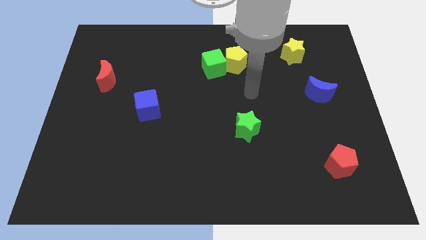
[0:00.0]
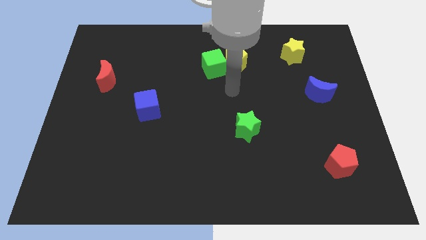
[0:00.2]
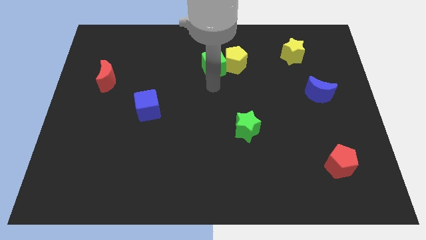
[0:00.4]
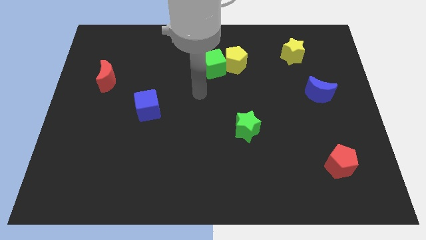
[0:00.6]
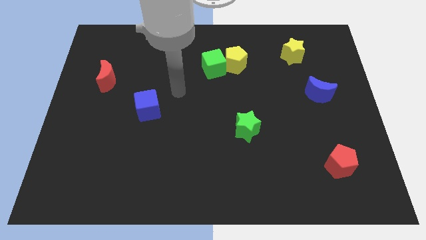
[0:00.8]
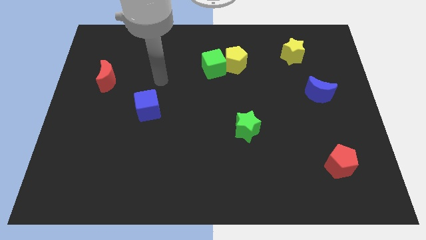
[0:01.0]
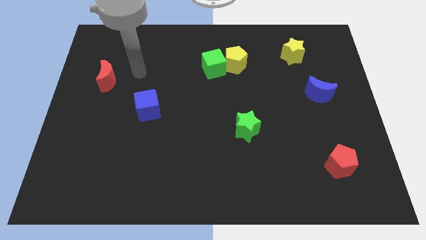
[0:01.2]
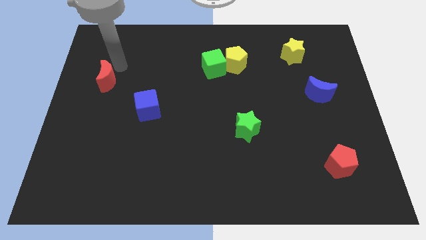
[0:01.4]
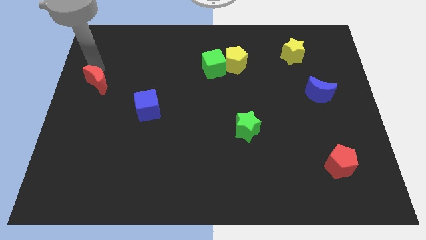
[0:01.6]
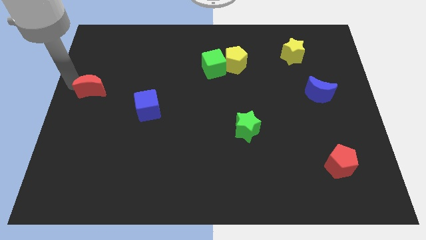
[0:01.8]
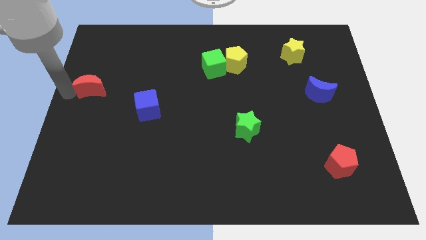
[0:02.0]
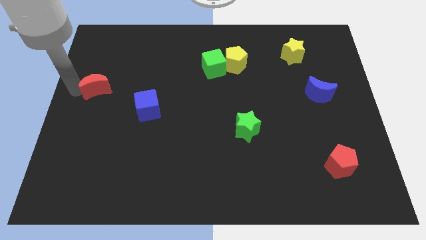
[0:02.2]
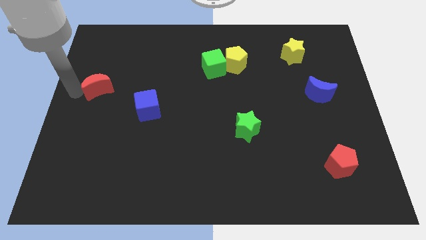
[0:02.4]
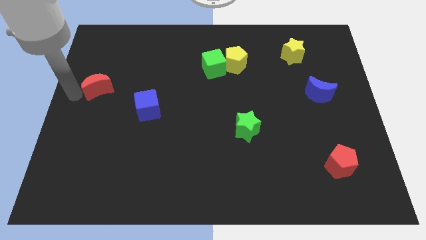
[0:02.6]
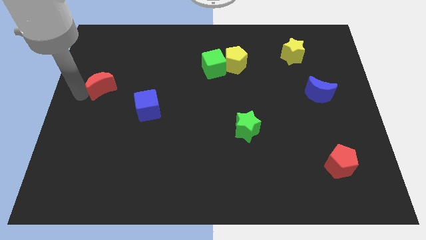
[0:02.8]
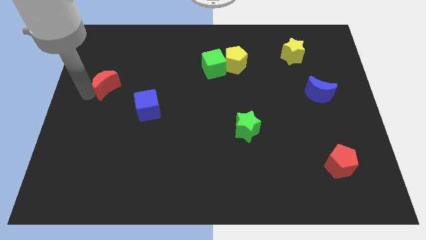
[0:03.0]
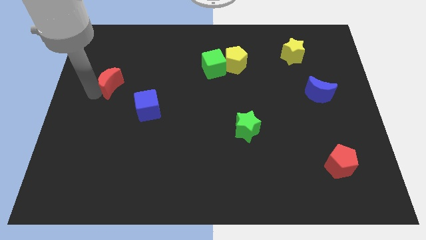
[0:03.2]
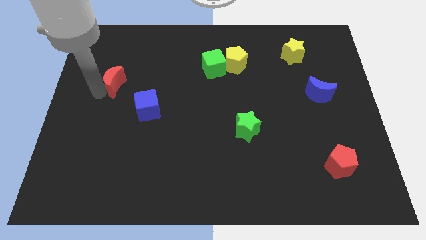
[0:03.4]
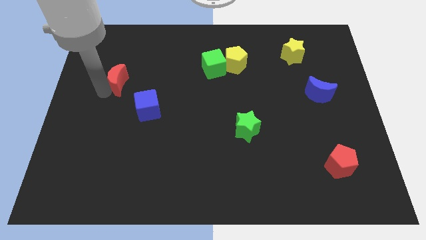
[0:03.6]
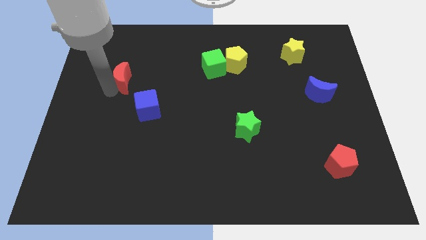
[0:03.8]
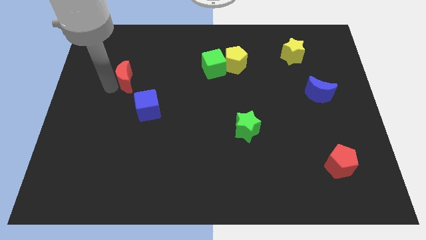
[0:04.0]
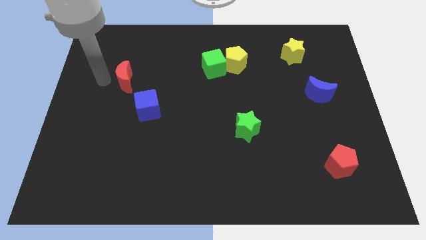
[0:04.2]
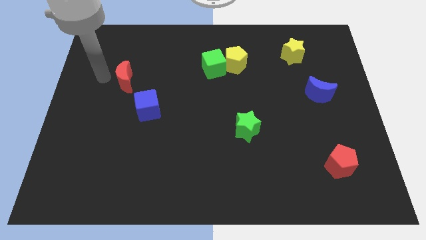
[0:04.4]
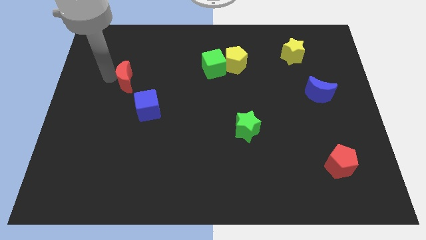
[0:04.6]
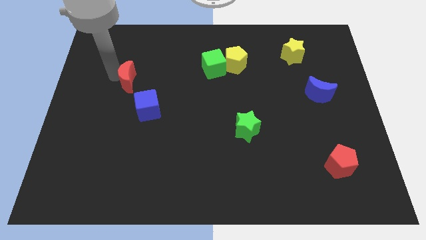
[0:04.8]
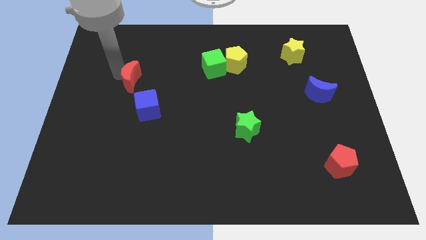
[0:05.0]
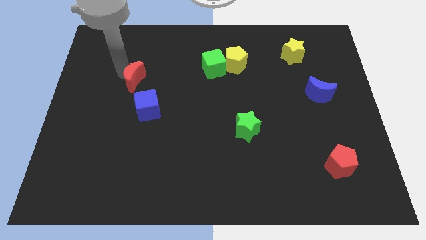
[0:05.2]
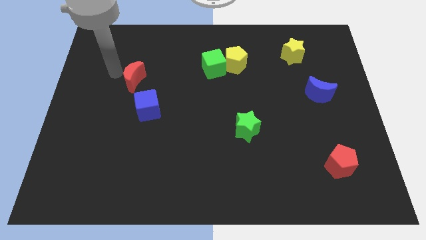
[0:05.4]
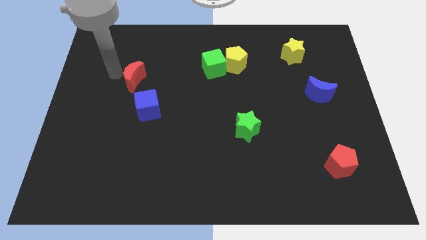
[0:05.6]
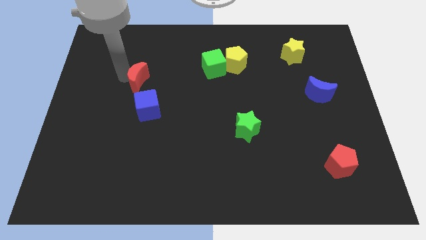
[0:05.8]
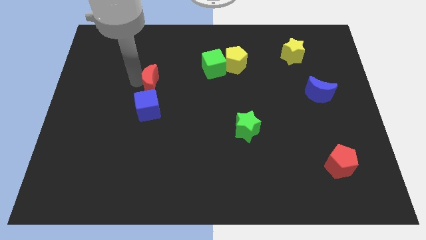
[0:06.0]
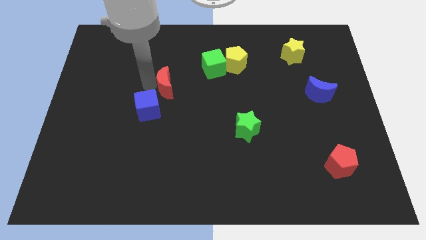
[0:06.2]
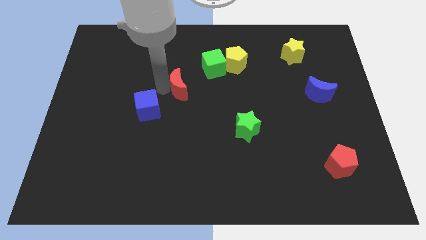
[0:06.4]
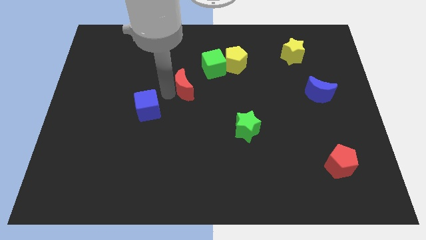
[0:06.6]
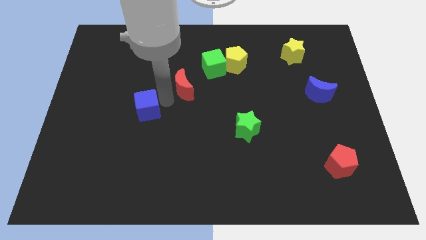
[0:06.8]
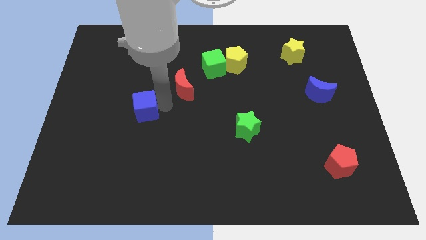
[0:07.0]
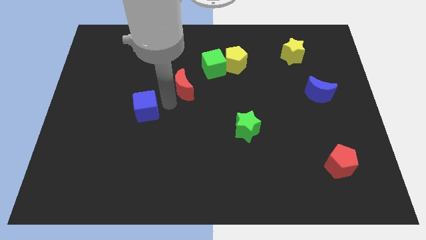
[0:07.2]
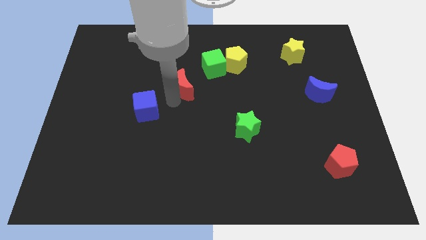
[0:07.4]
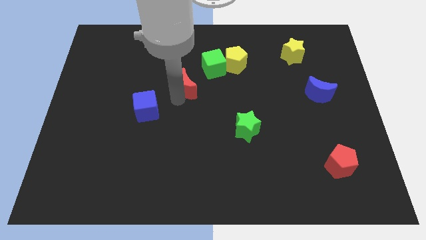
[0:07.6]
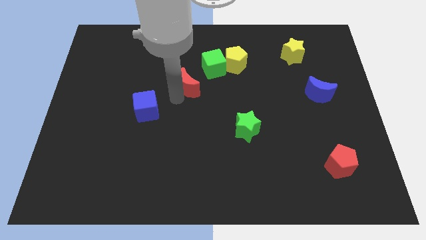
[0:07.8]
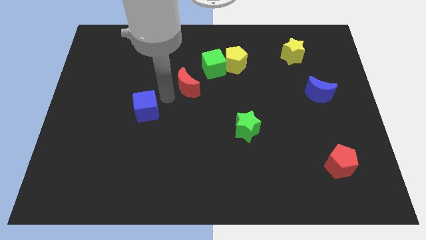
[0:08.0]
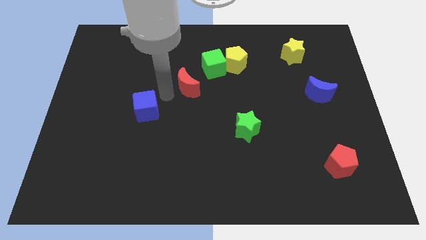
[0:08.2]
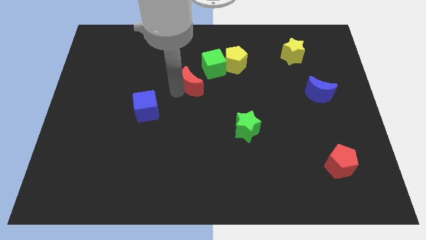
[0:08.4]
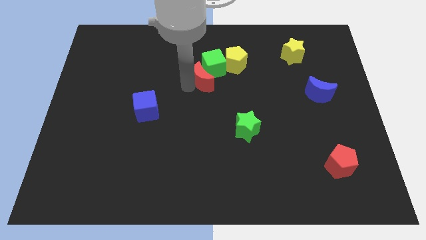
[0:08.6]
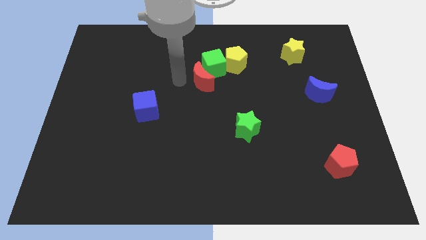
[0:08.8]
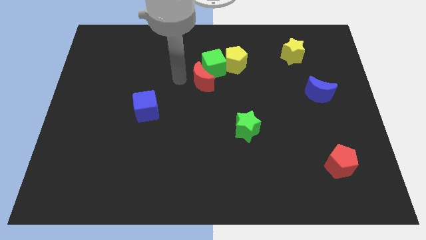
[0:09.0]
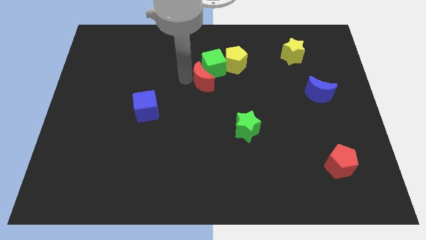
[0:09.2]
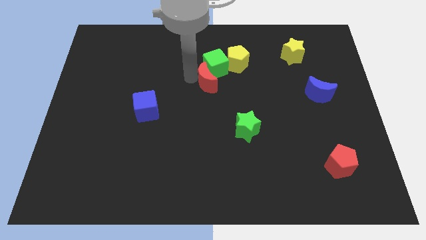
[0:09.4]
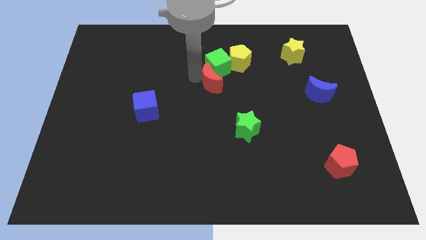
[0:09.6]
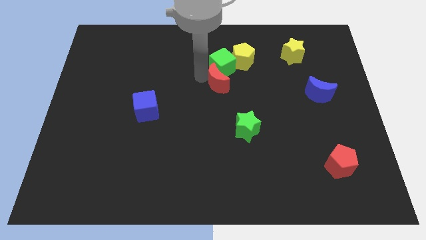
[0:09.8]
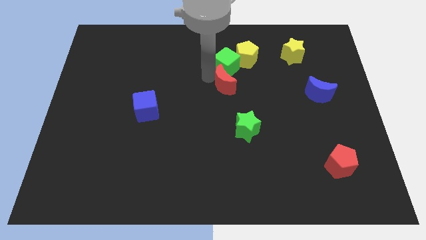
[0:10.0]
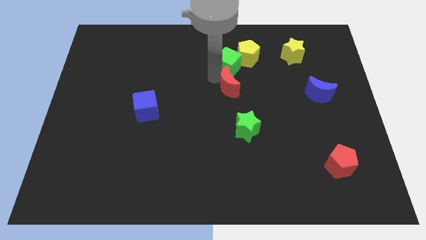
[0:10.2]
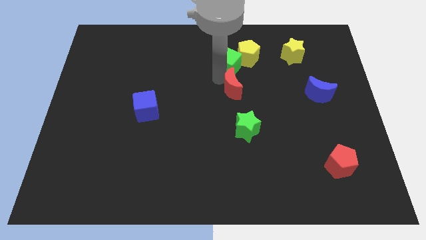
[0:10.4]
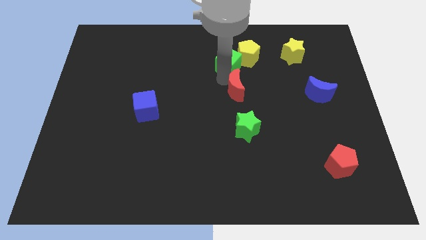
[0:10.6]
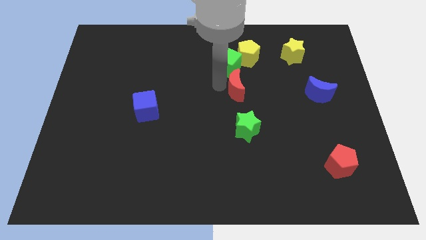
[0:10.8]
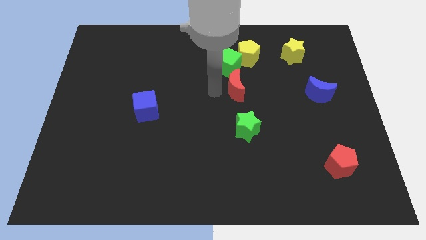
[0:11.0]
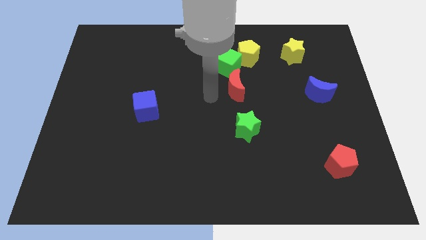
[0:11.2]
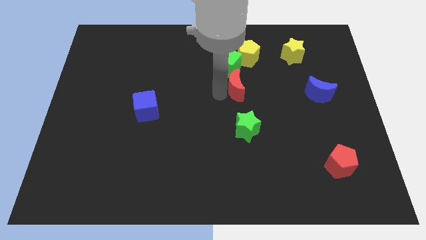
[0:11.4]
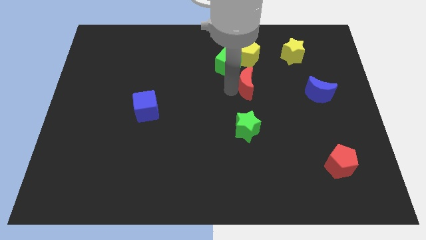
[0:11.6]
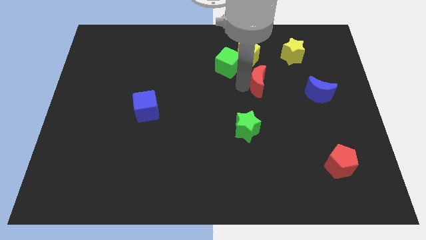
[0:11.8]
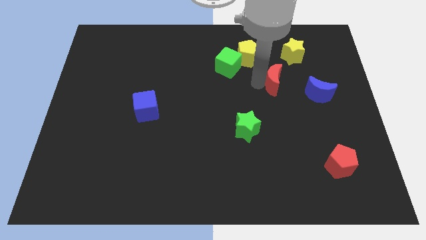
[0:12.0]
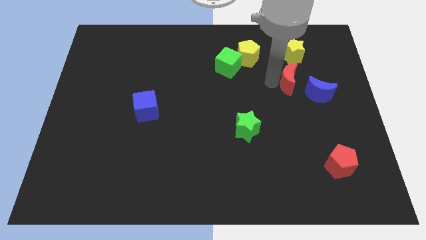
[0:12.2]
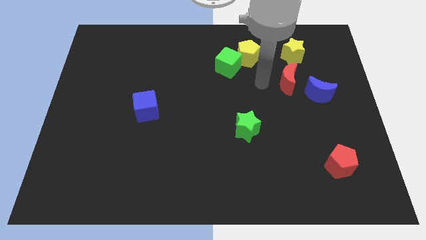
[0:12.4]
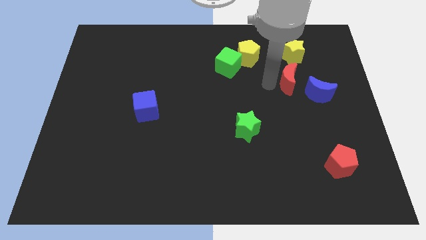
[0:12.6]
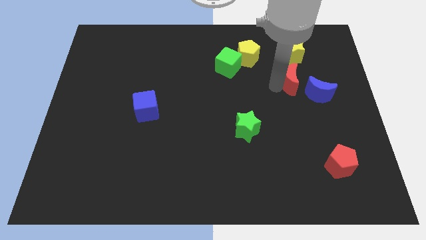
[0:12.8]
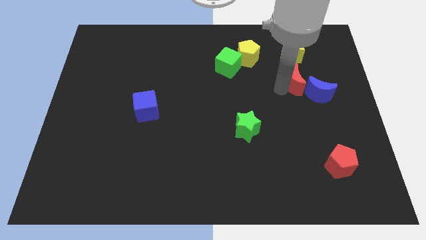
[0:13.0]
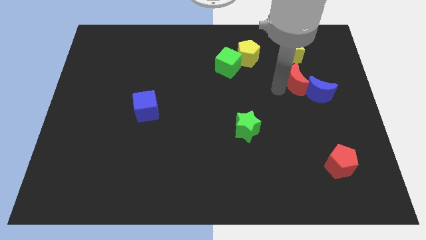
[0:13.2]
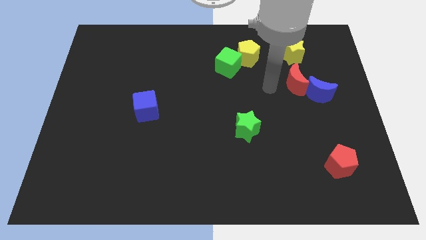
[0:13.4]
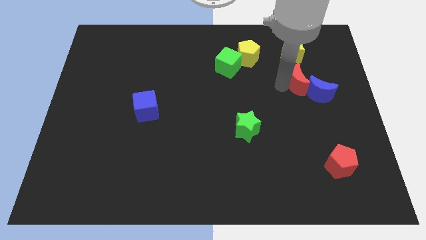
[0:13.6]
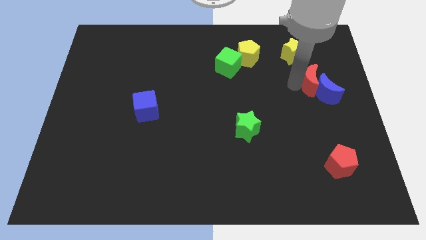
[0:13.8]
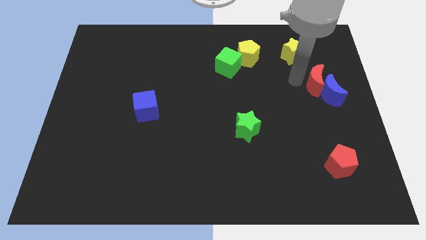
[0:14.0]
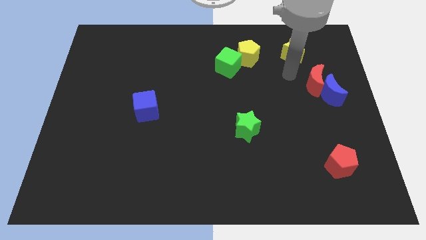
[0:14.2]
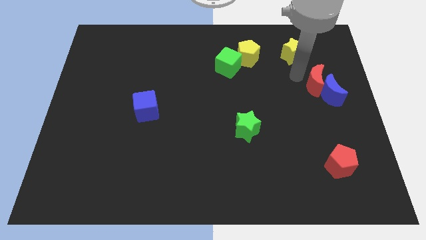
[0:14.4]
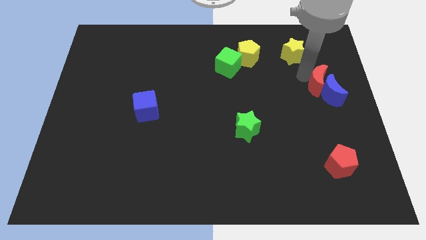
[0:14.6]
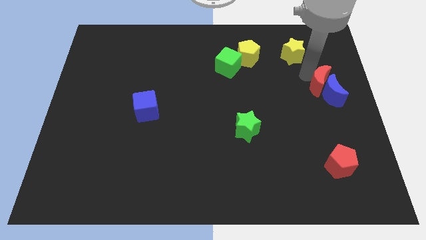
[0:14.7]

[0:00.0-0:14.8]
slide the red moon to the right side

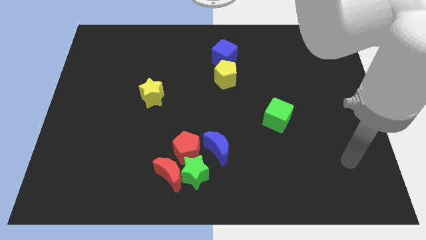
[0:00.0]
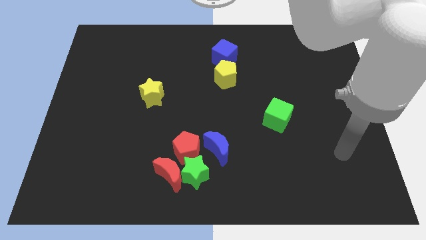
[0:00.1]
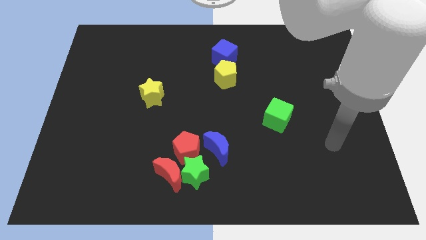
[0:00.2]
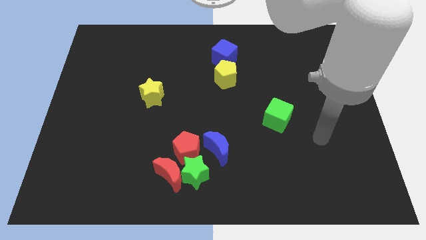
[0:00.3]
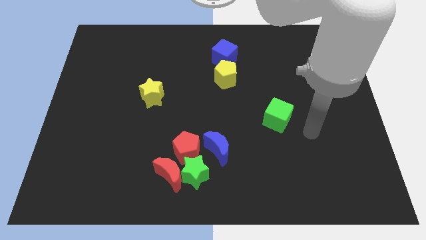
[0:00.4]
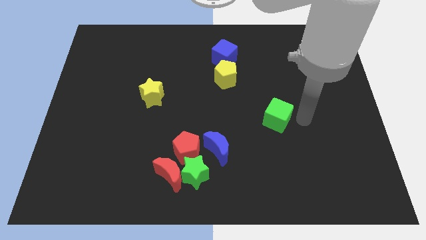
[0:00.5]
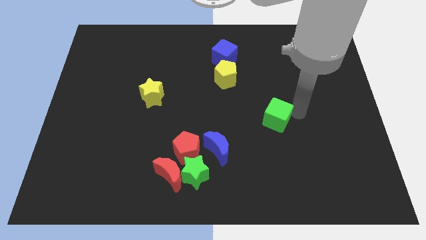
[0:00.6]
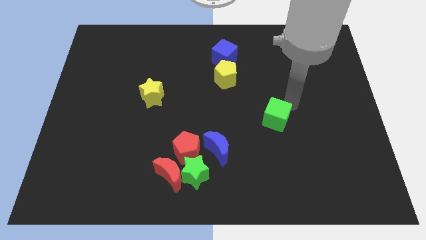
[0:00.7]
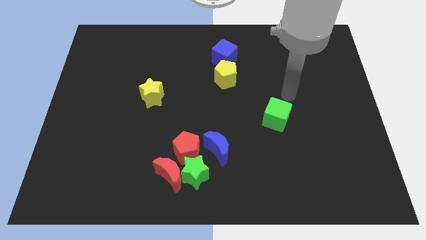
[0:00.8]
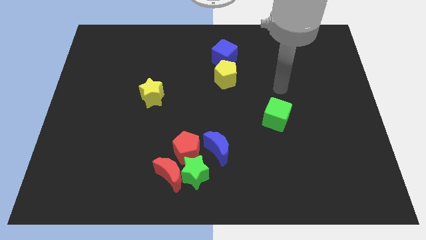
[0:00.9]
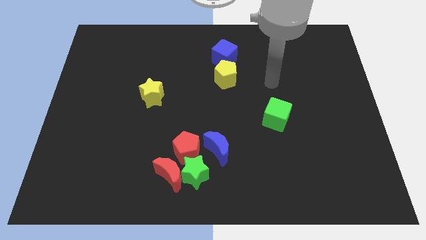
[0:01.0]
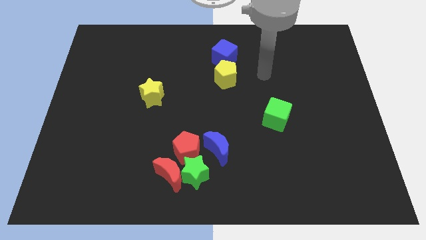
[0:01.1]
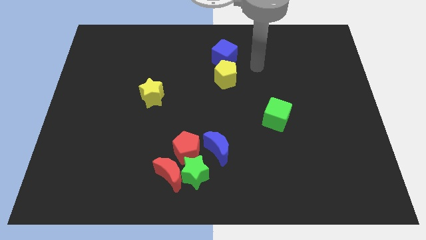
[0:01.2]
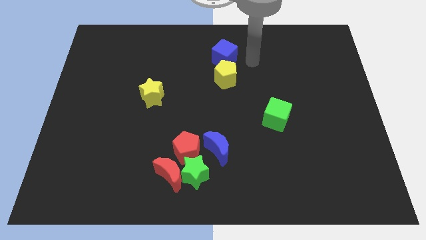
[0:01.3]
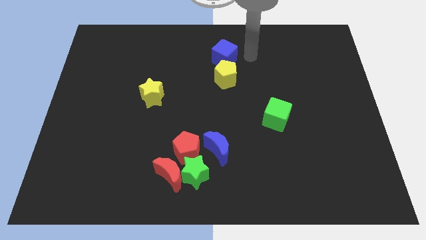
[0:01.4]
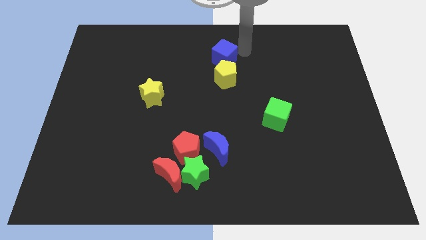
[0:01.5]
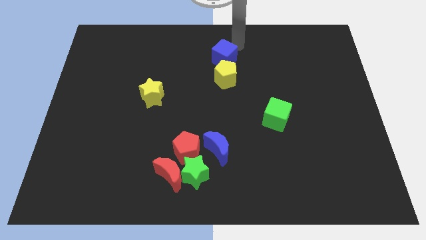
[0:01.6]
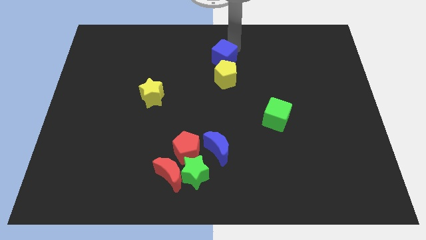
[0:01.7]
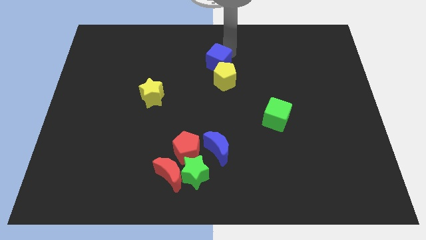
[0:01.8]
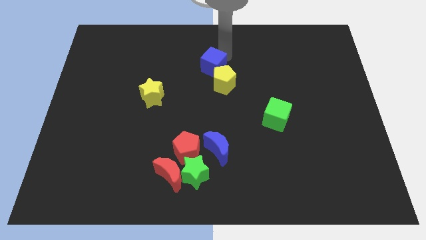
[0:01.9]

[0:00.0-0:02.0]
move the blue cube to the center
